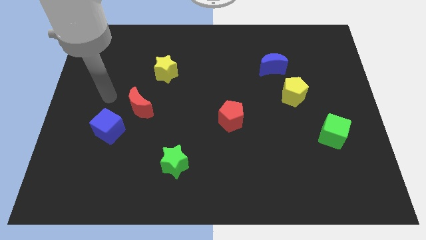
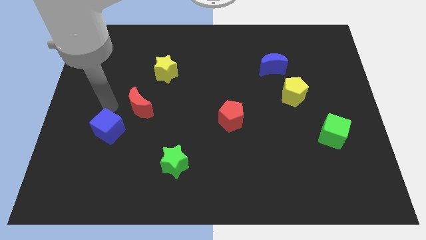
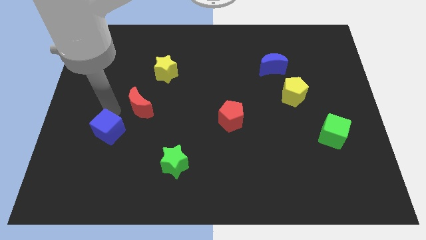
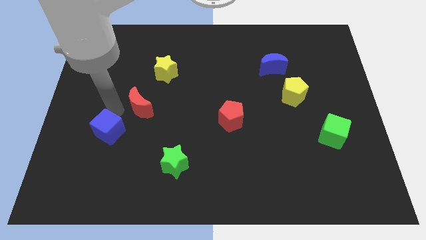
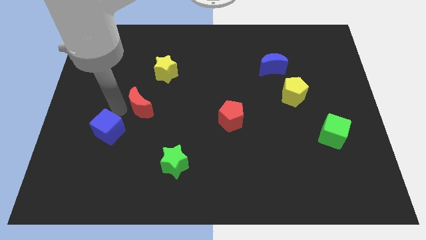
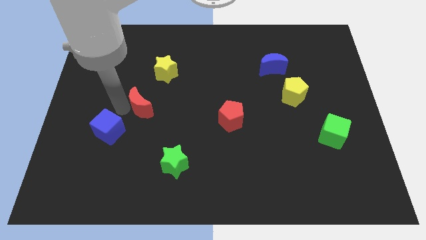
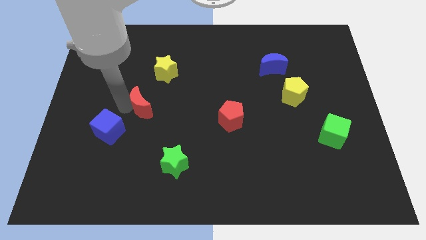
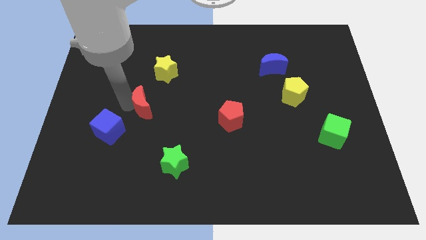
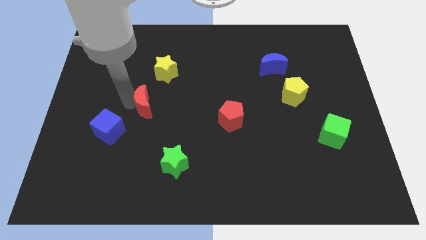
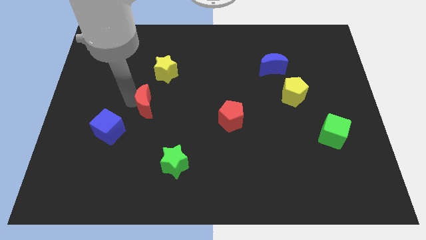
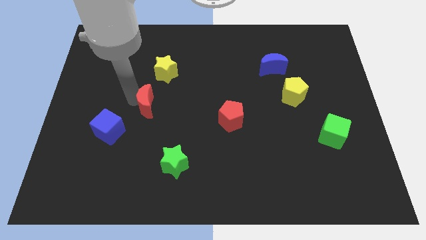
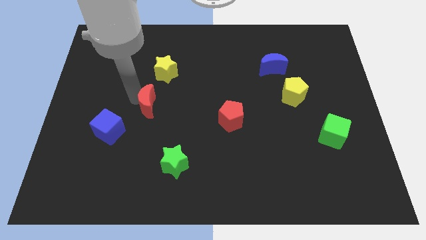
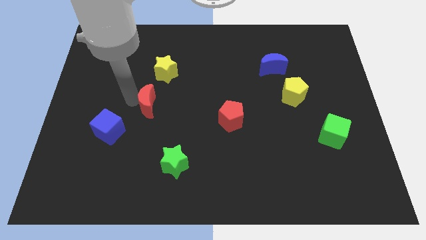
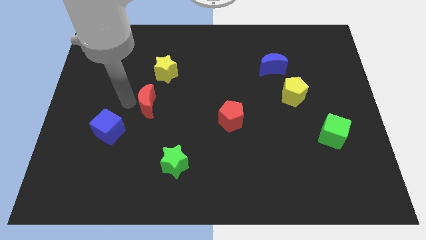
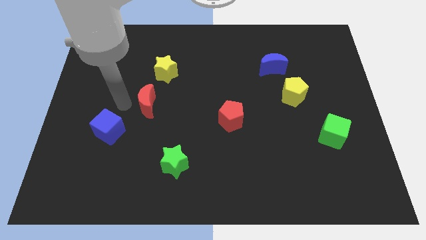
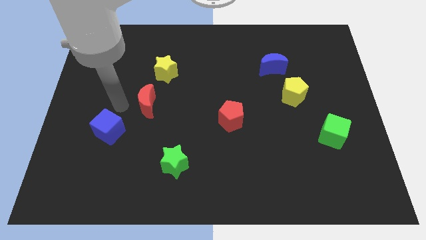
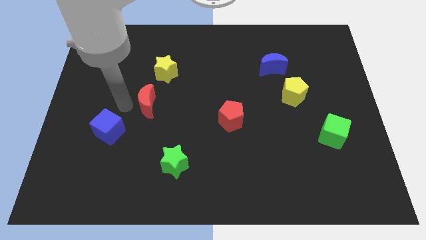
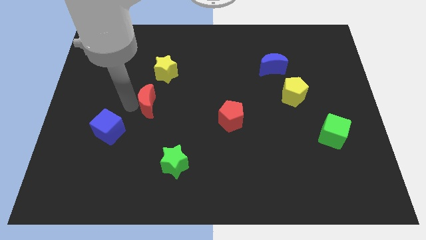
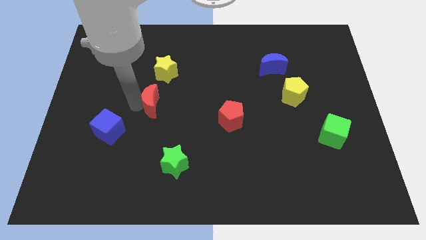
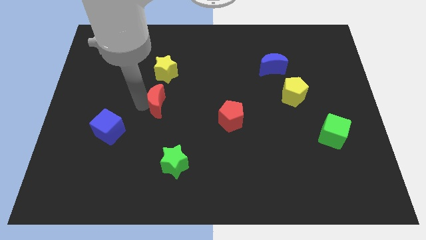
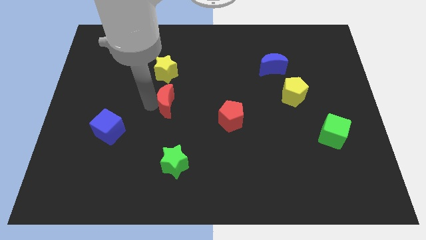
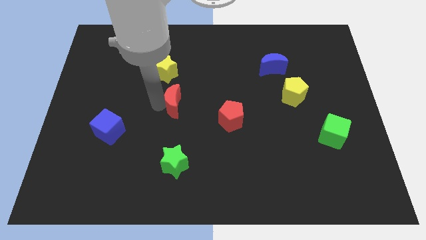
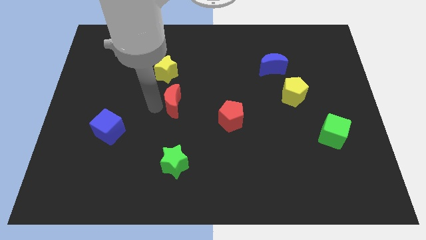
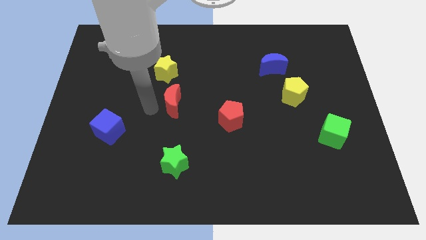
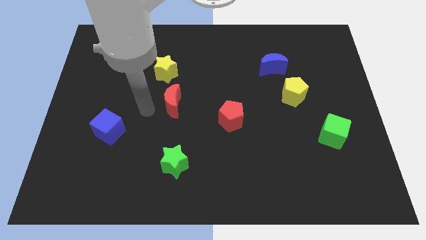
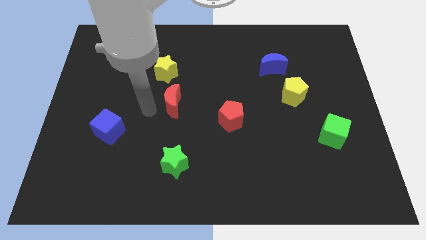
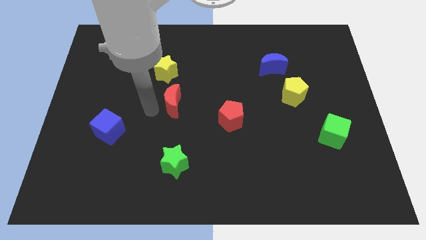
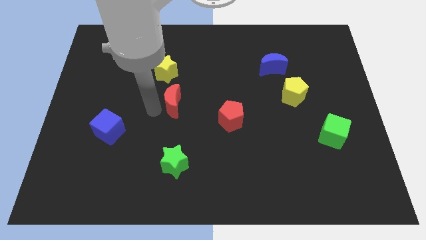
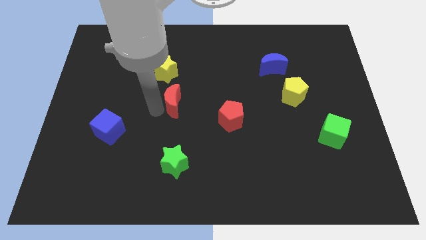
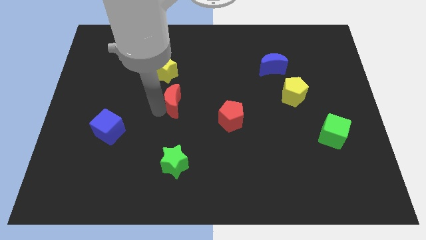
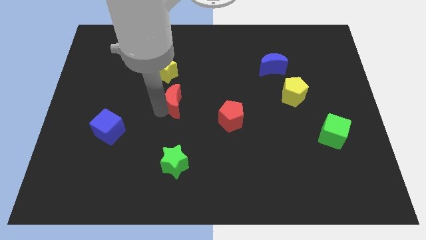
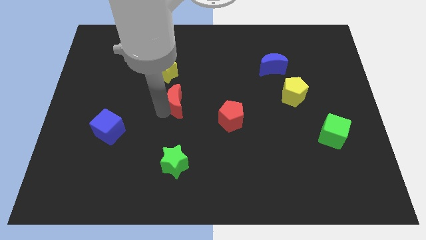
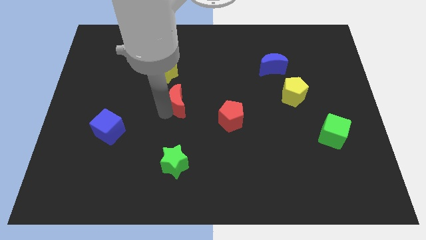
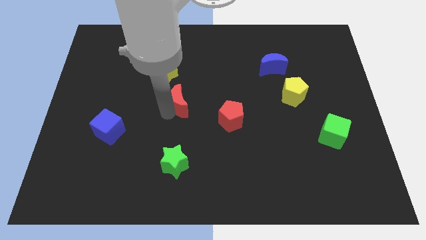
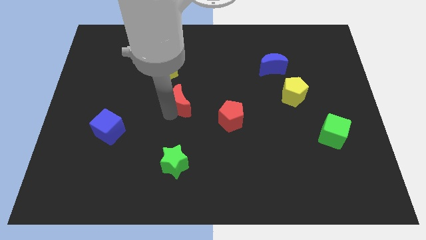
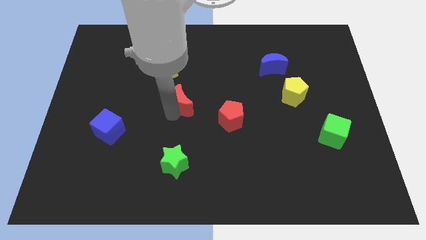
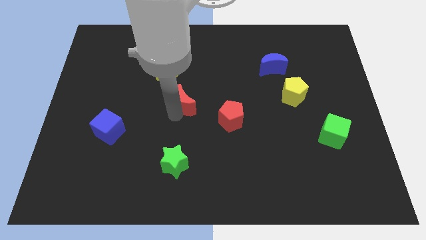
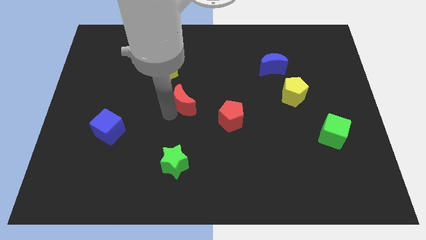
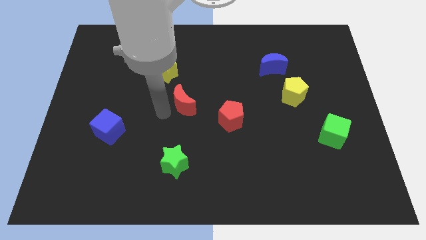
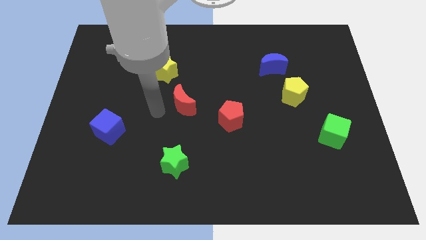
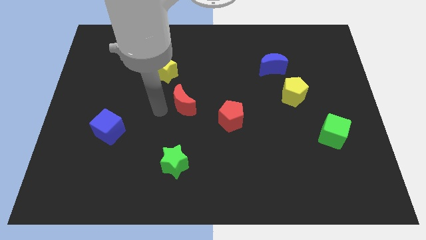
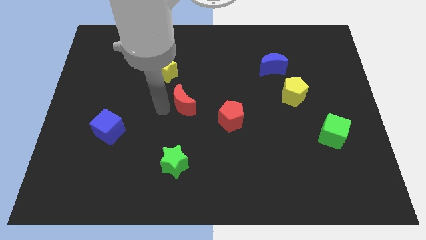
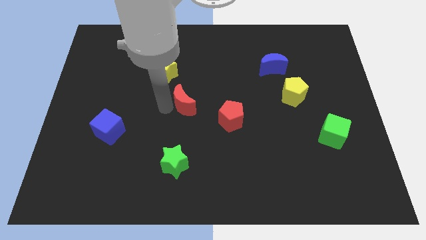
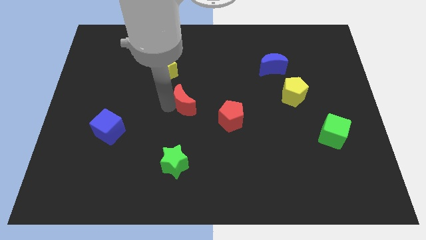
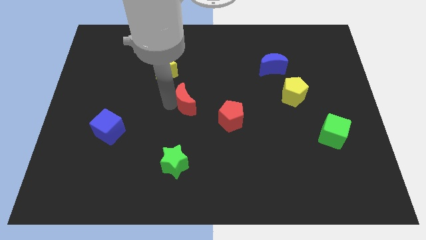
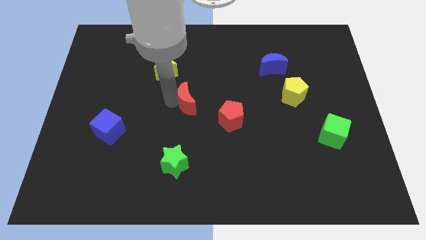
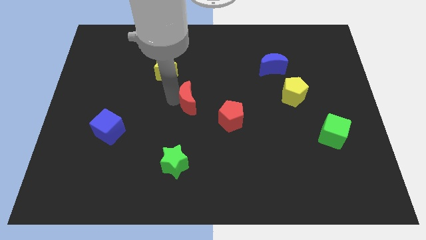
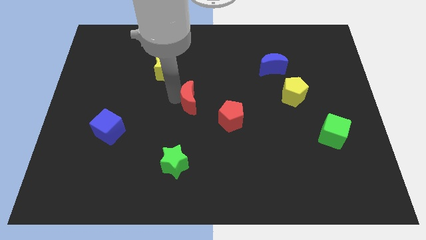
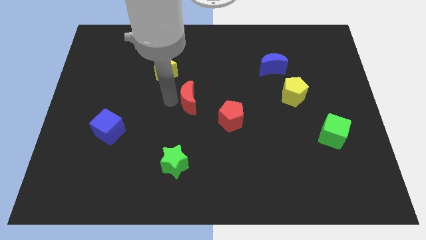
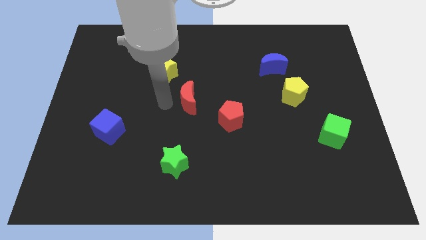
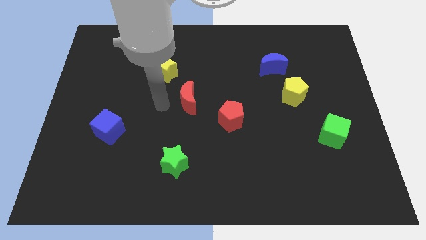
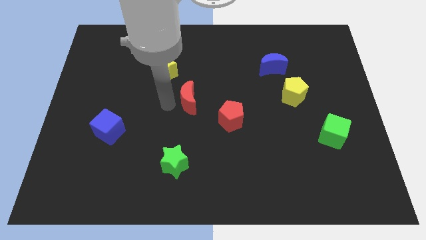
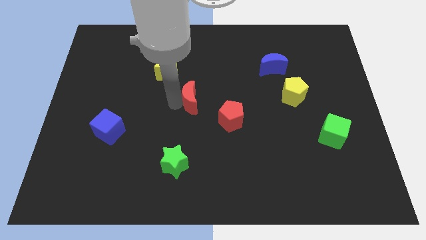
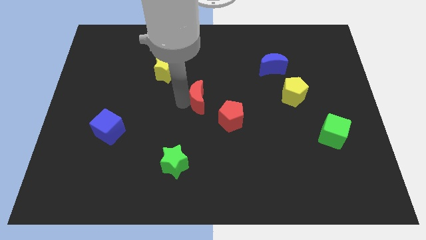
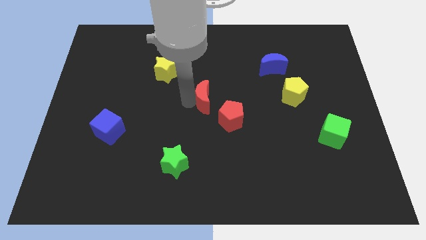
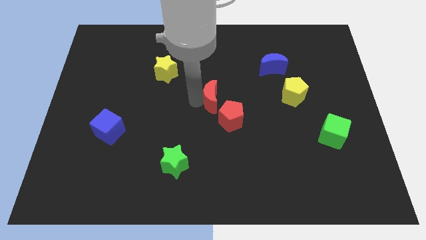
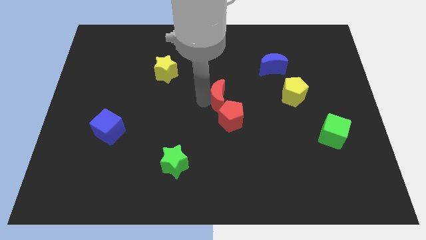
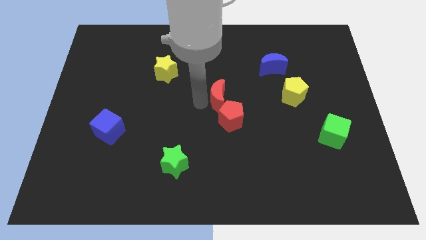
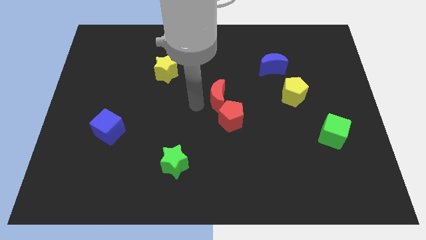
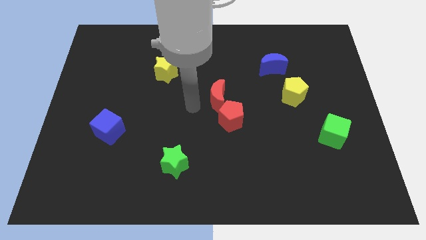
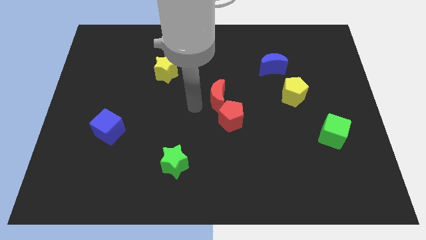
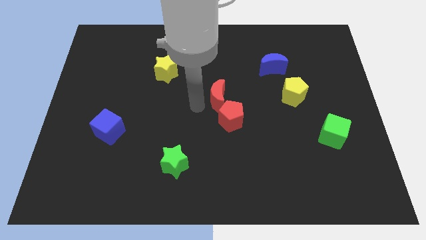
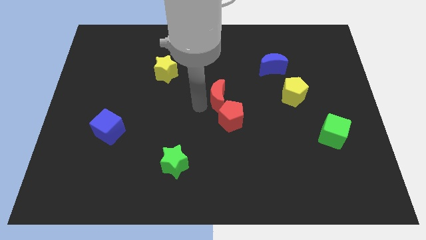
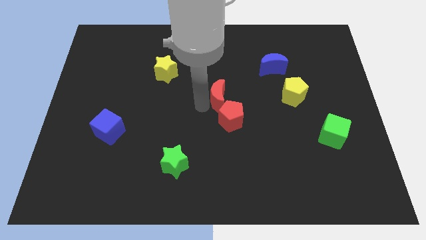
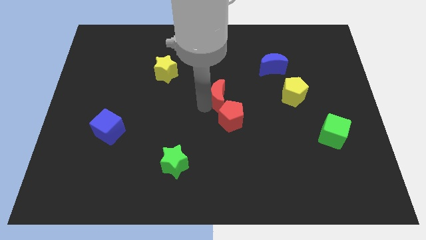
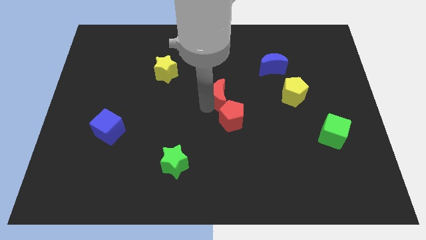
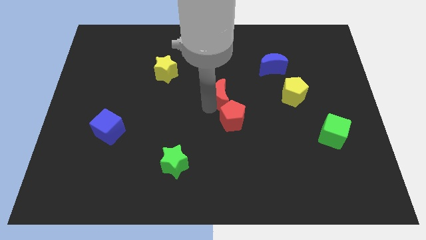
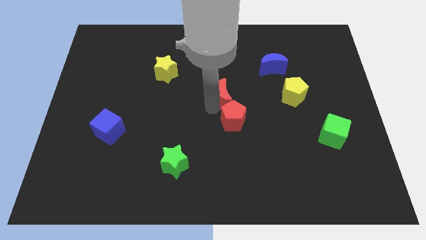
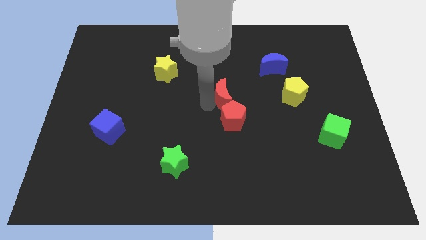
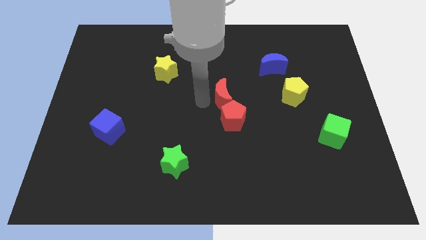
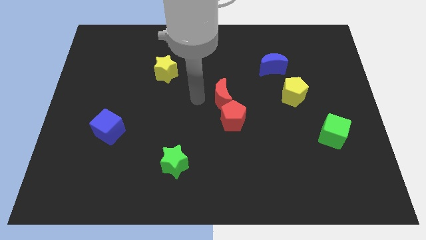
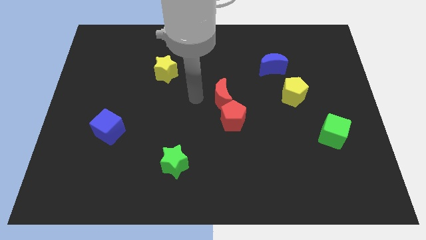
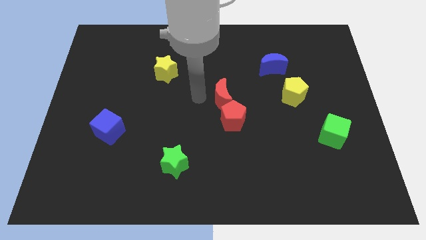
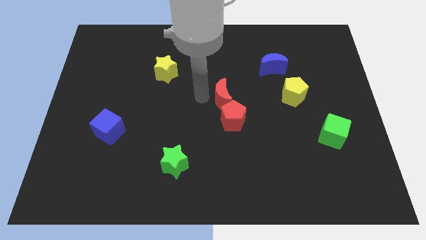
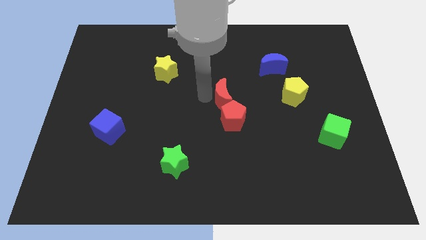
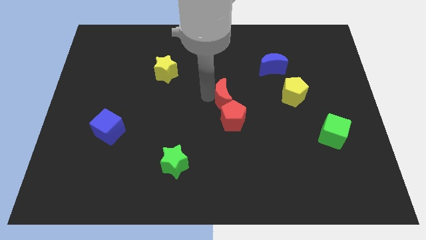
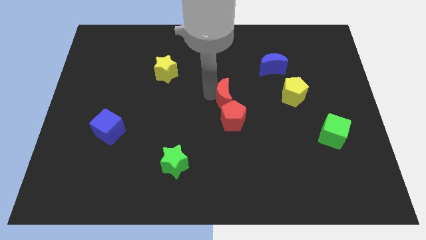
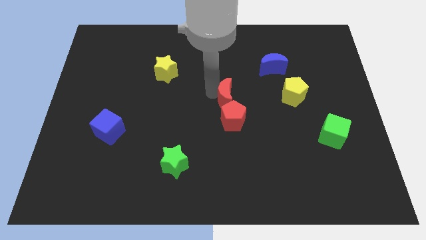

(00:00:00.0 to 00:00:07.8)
move the red moon right

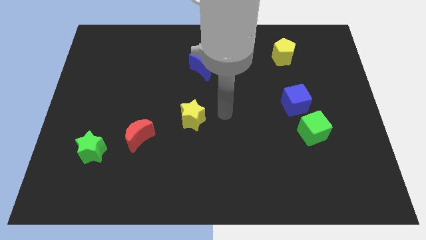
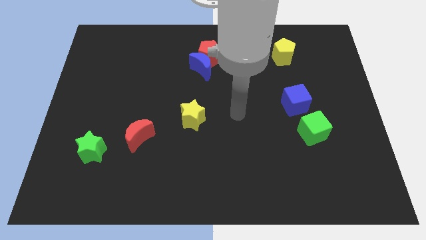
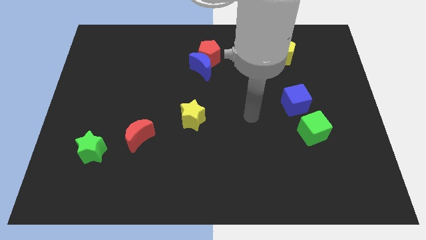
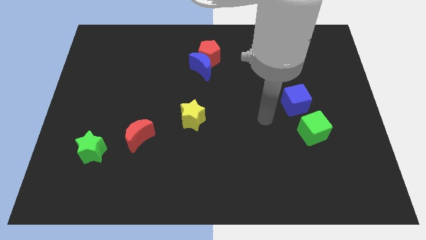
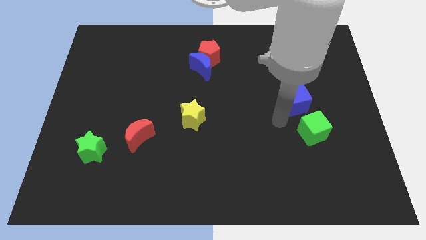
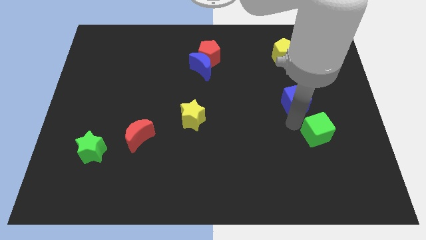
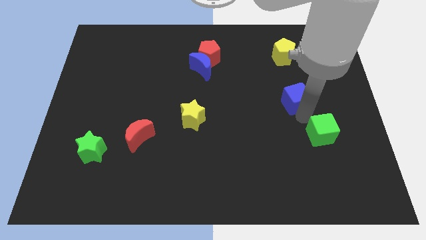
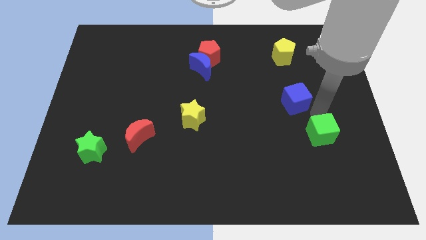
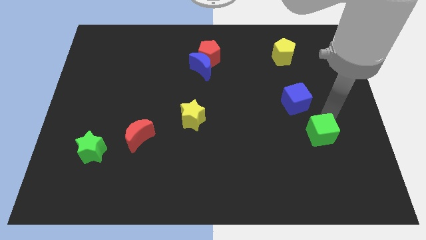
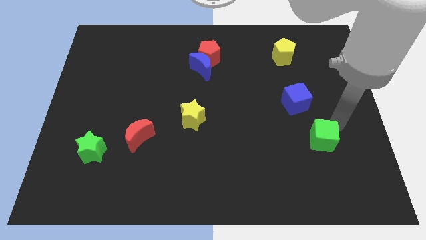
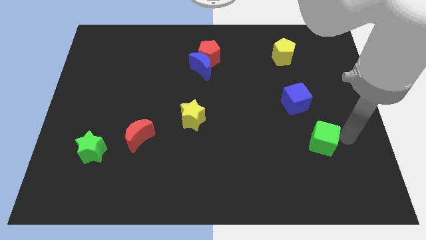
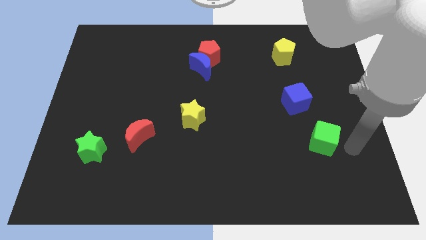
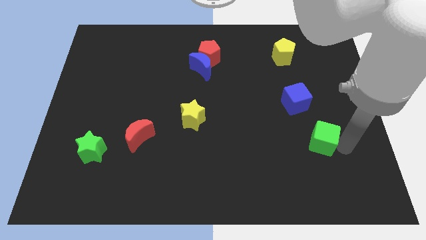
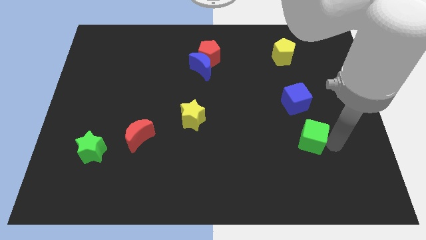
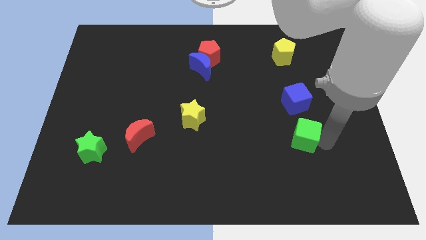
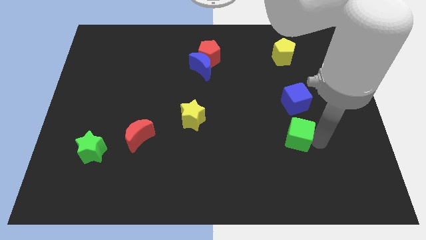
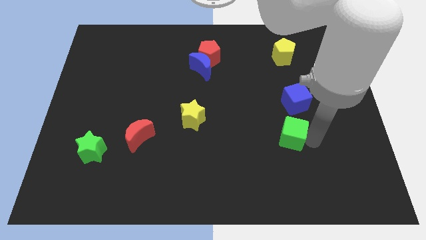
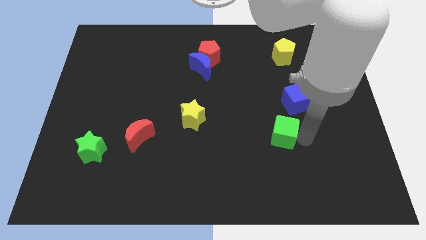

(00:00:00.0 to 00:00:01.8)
move the green cube a bit left
